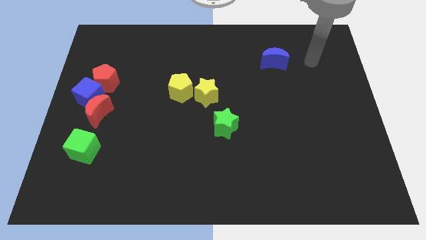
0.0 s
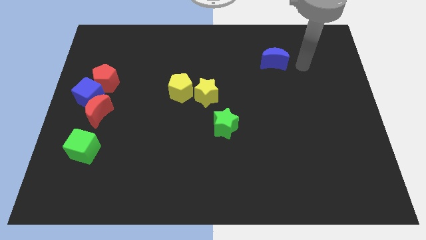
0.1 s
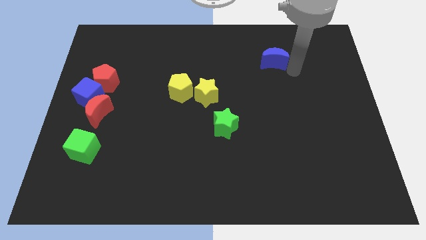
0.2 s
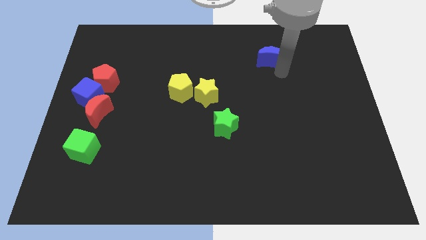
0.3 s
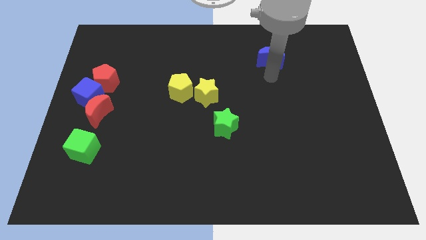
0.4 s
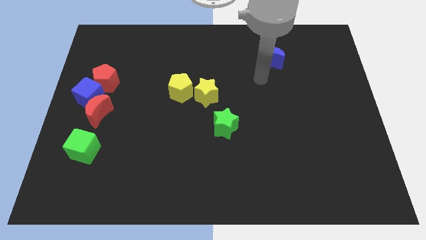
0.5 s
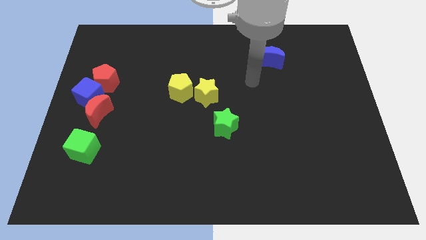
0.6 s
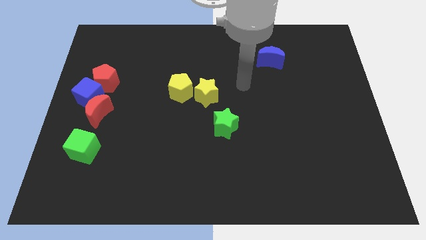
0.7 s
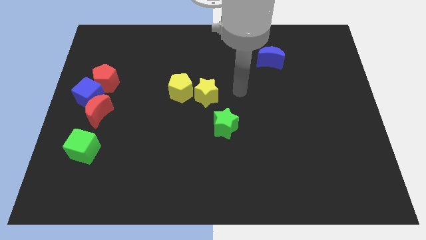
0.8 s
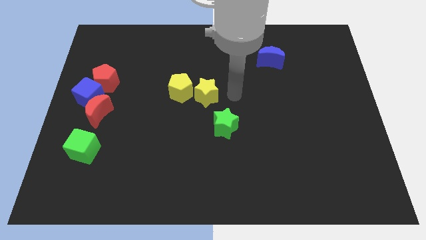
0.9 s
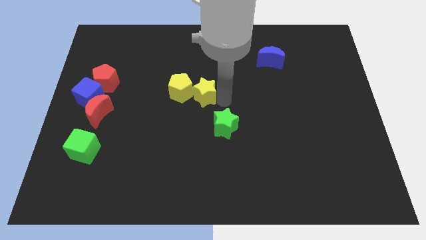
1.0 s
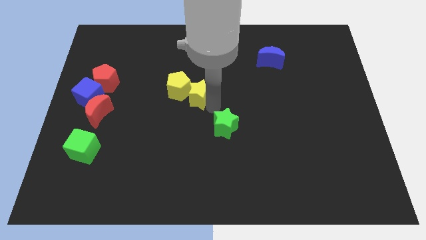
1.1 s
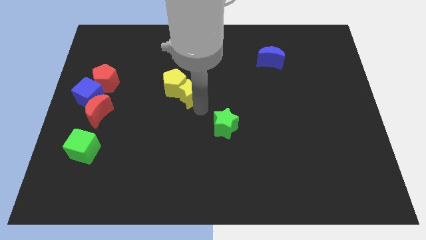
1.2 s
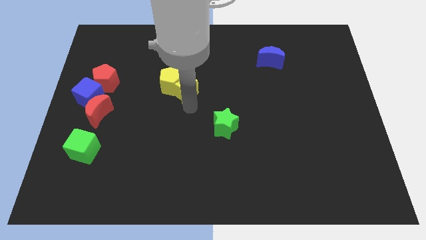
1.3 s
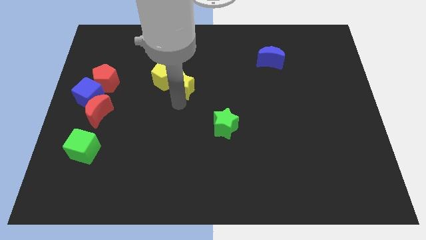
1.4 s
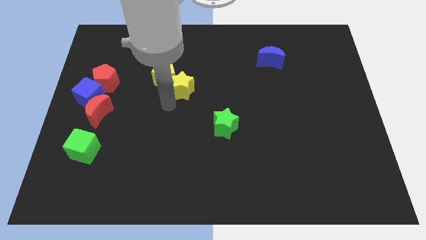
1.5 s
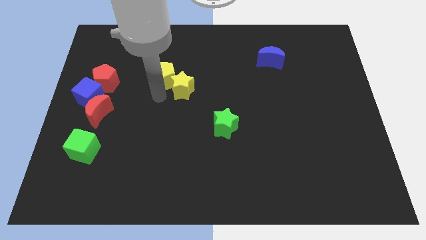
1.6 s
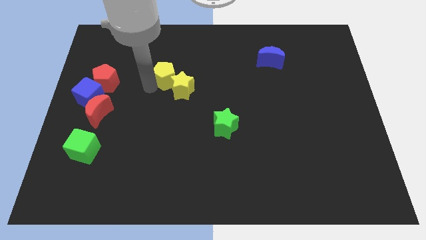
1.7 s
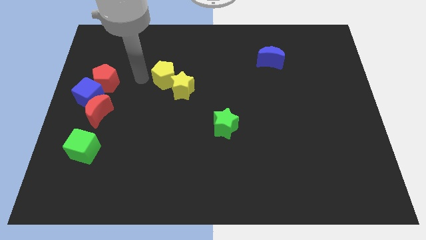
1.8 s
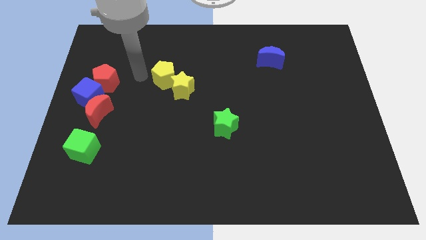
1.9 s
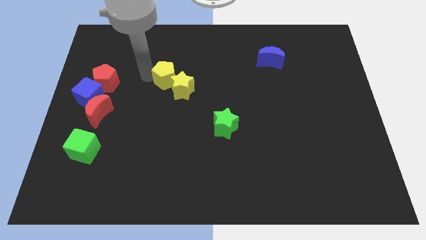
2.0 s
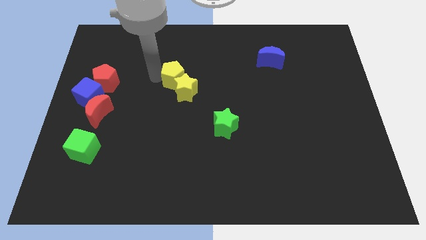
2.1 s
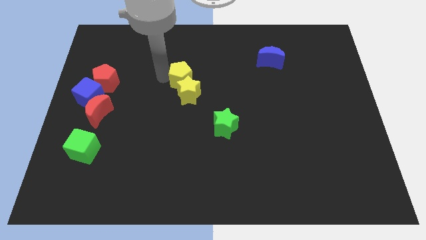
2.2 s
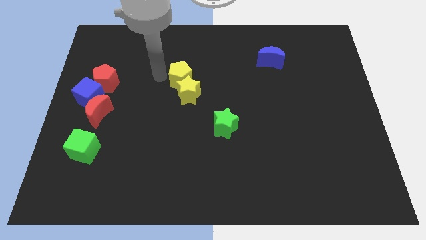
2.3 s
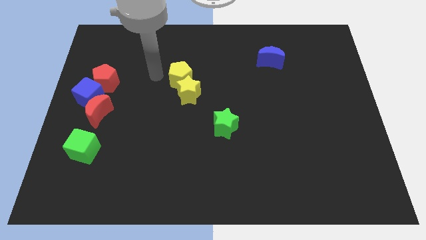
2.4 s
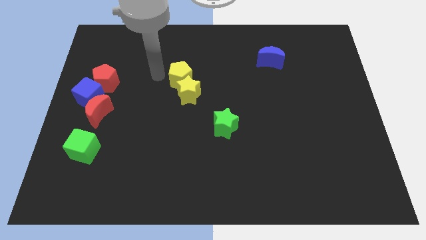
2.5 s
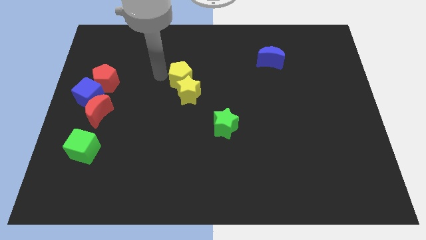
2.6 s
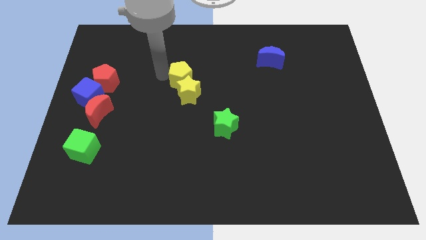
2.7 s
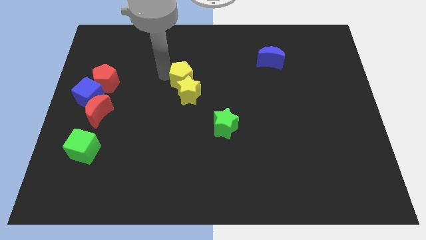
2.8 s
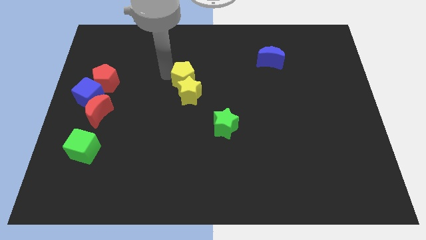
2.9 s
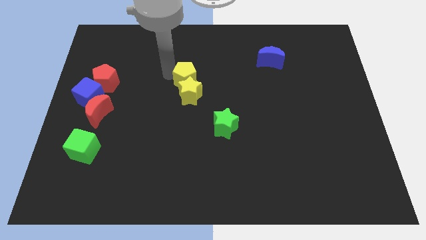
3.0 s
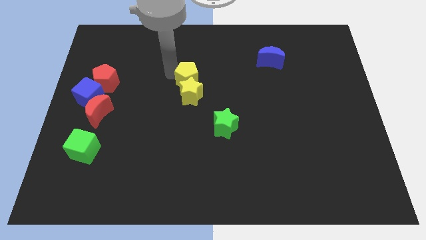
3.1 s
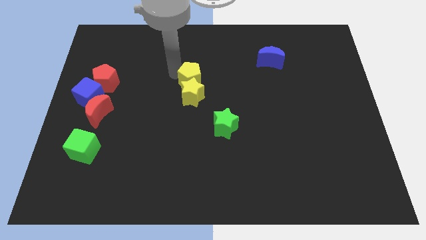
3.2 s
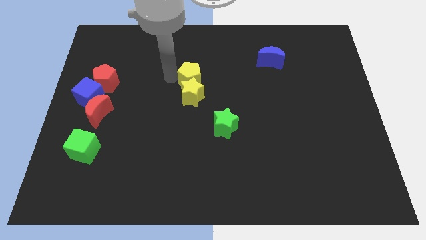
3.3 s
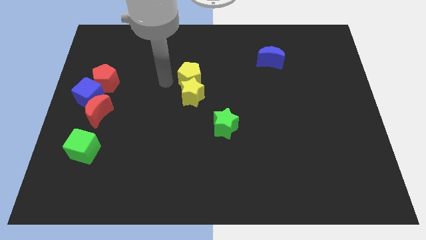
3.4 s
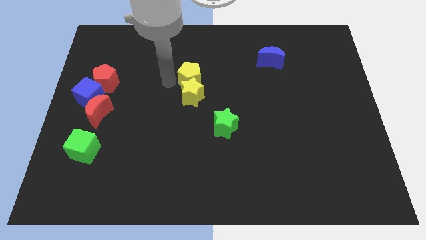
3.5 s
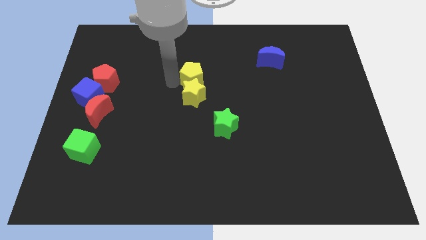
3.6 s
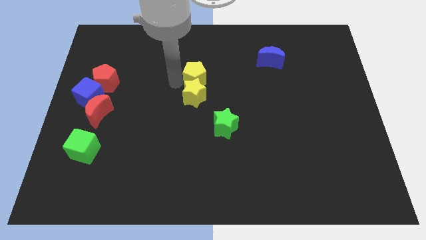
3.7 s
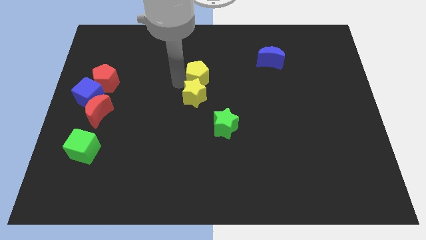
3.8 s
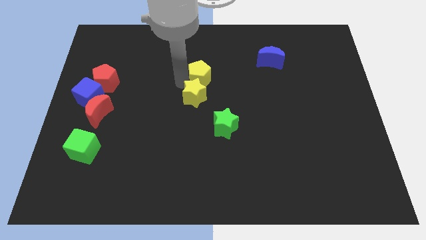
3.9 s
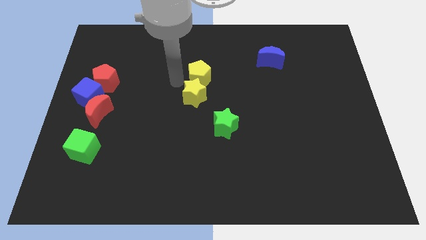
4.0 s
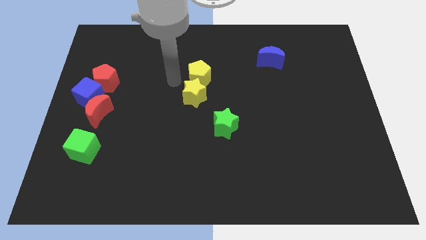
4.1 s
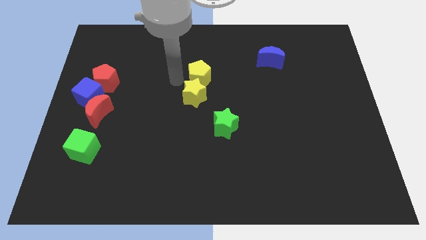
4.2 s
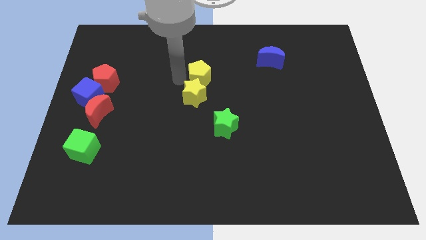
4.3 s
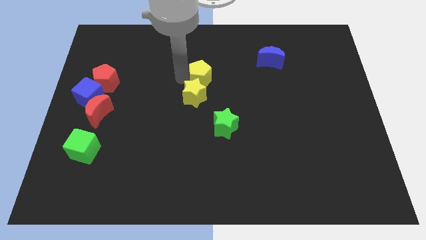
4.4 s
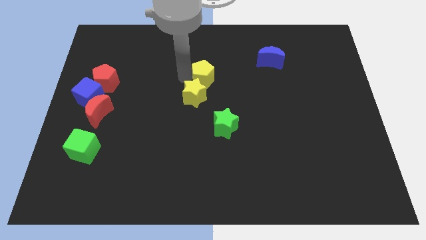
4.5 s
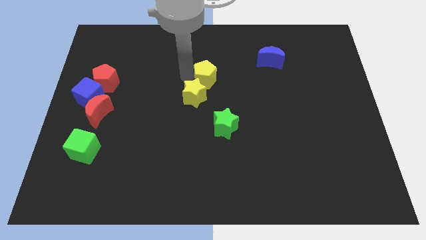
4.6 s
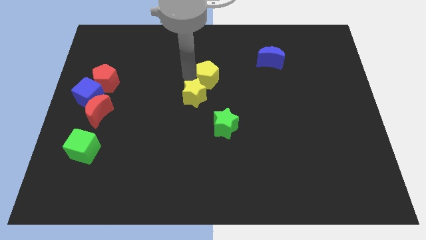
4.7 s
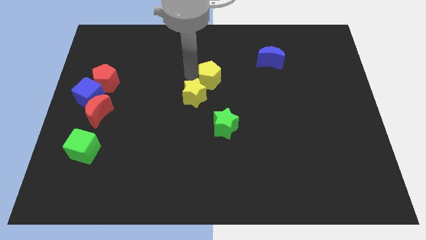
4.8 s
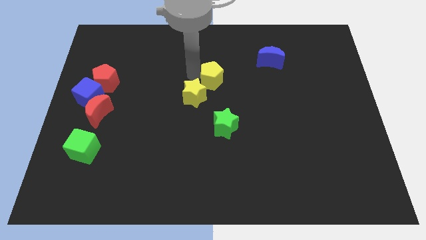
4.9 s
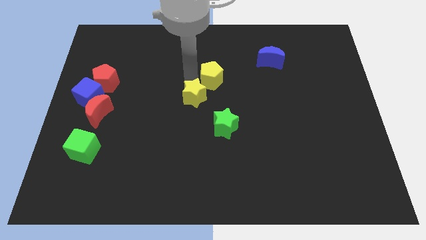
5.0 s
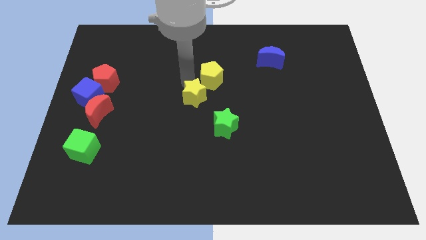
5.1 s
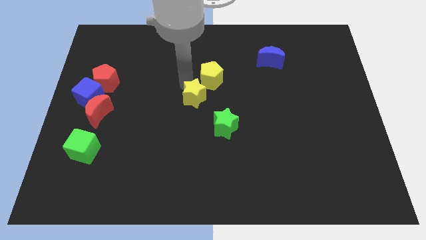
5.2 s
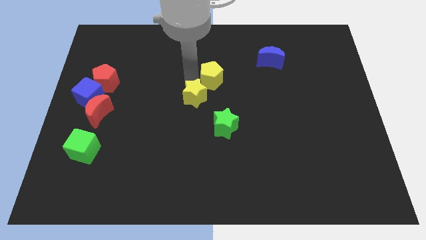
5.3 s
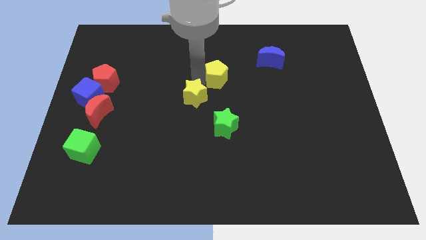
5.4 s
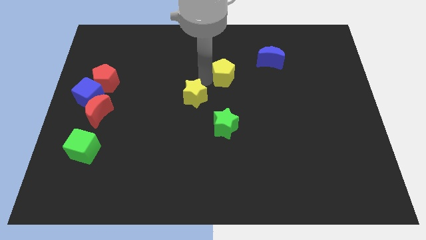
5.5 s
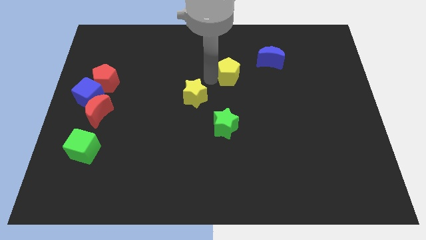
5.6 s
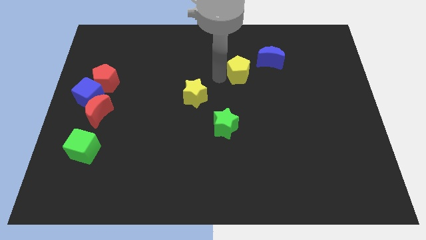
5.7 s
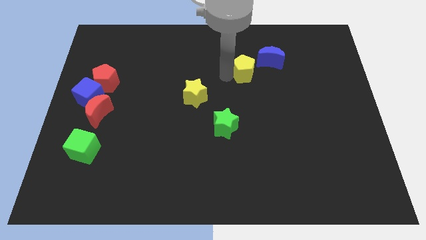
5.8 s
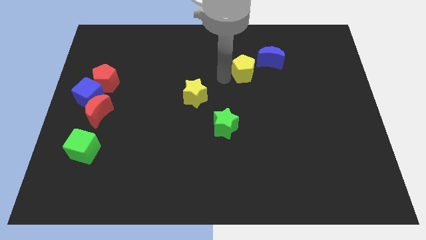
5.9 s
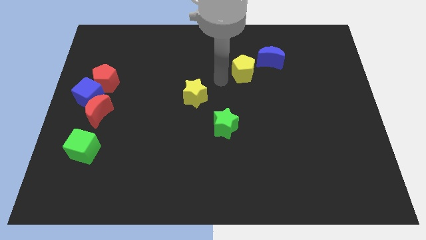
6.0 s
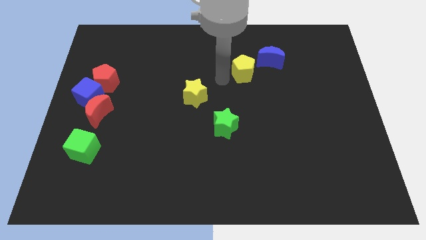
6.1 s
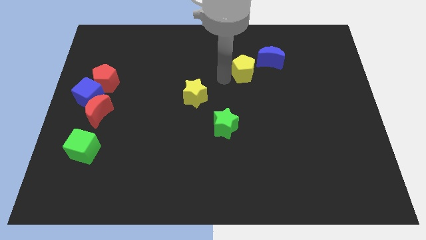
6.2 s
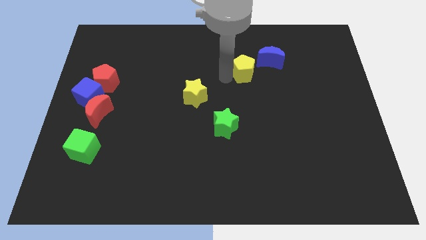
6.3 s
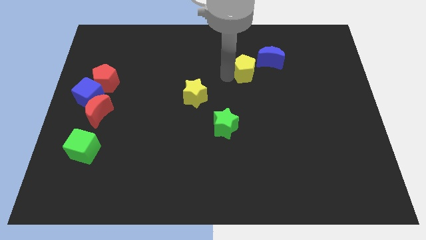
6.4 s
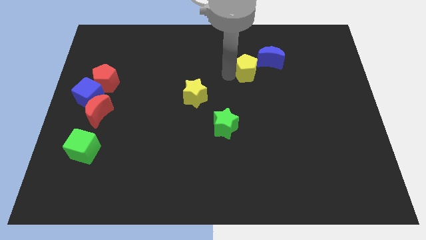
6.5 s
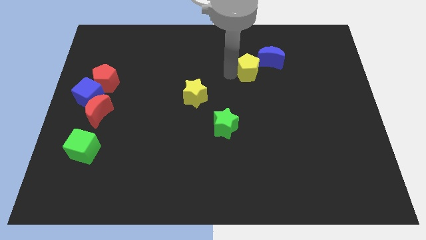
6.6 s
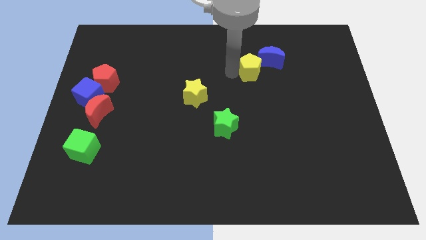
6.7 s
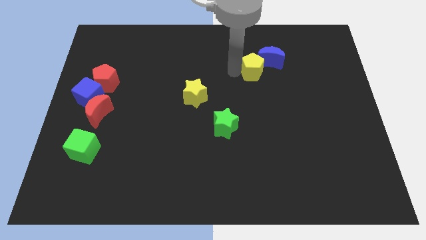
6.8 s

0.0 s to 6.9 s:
slide the yellow pentagon towards the blue moon
